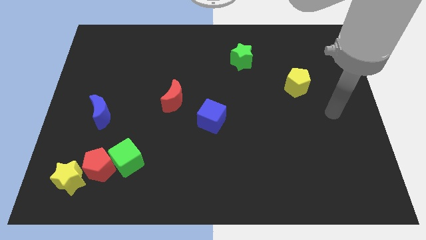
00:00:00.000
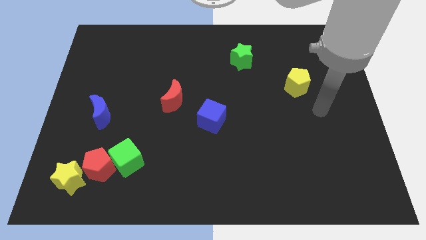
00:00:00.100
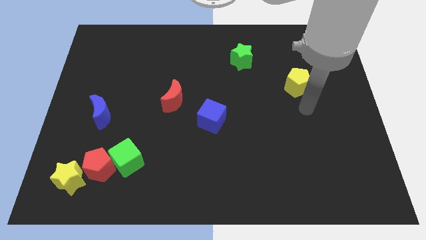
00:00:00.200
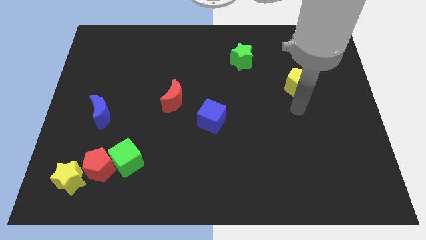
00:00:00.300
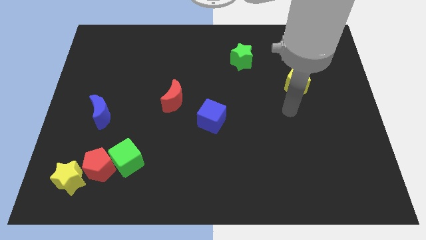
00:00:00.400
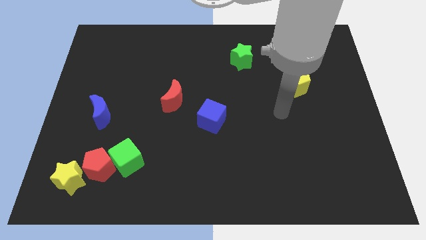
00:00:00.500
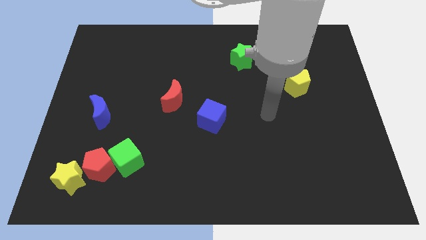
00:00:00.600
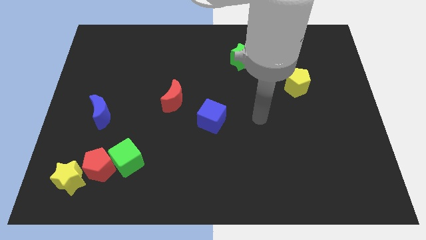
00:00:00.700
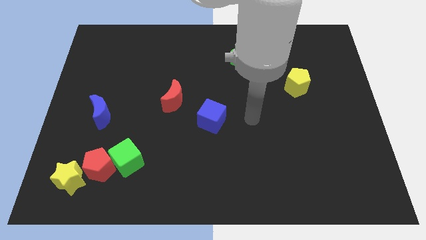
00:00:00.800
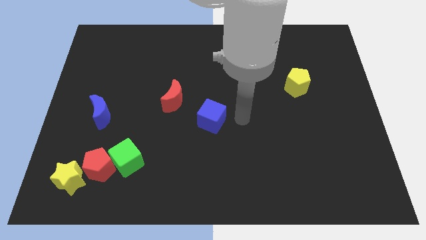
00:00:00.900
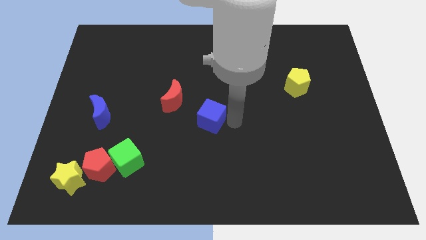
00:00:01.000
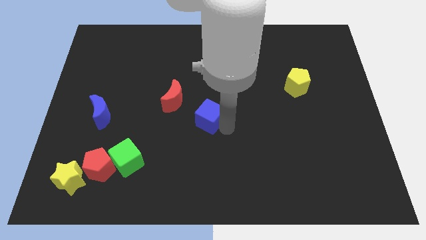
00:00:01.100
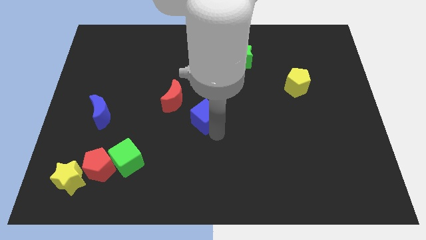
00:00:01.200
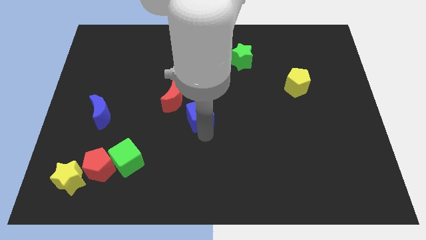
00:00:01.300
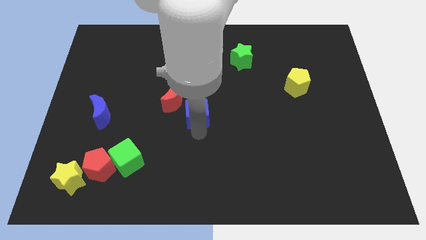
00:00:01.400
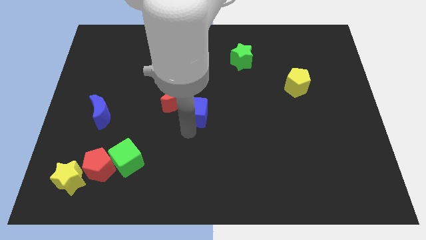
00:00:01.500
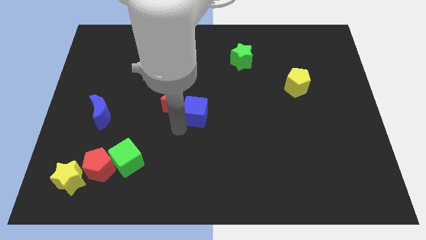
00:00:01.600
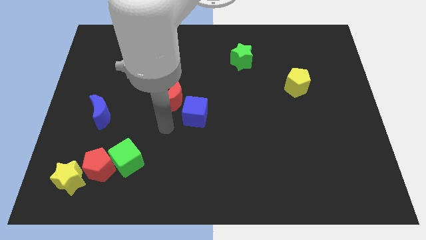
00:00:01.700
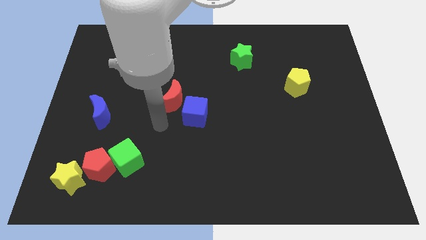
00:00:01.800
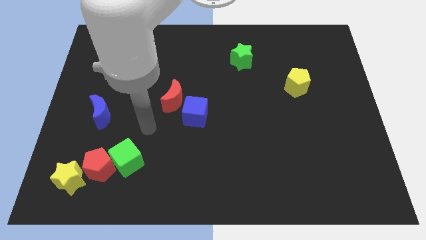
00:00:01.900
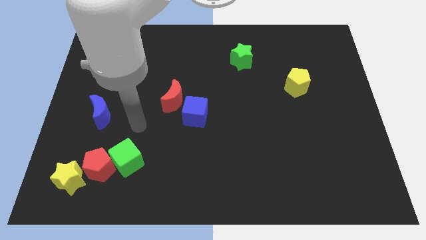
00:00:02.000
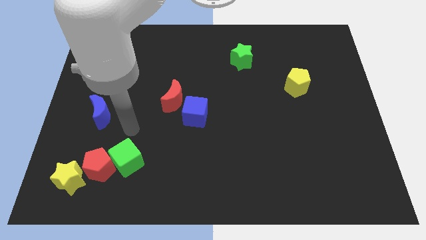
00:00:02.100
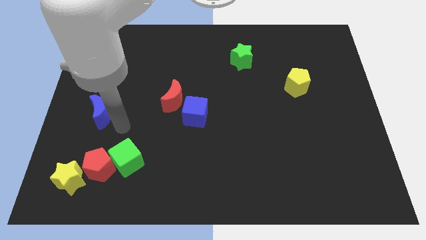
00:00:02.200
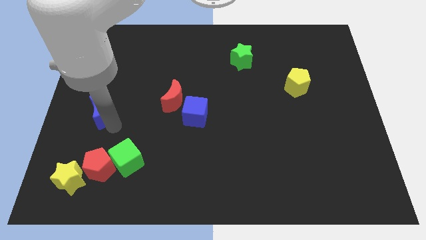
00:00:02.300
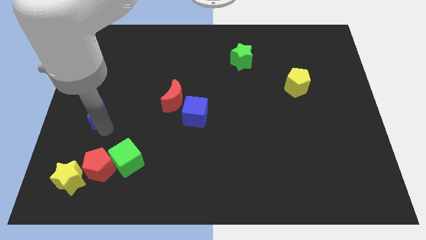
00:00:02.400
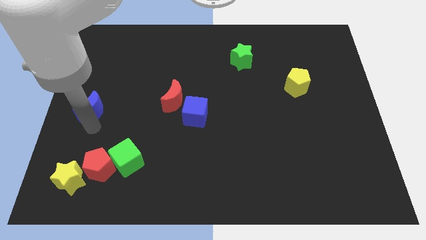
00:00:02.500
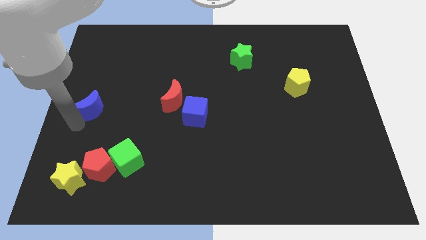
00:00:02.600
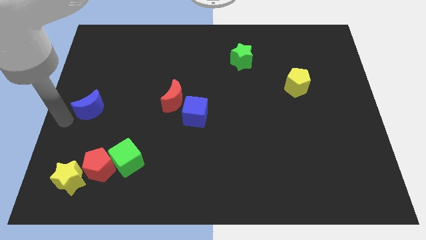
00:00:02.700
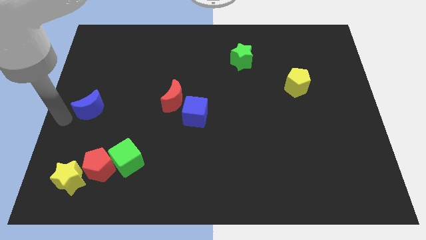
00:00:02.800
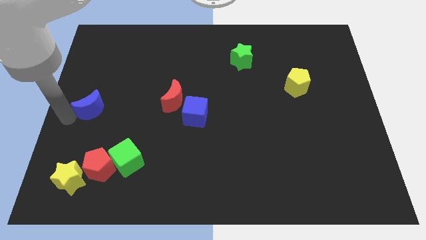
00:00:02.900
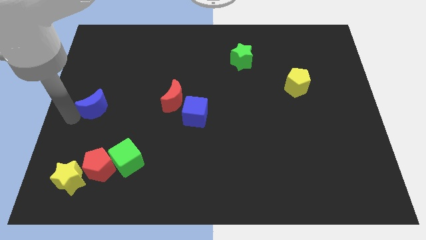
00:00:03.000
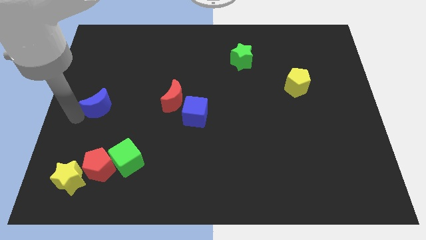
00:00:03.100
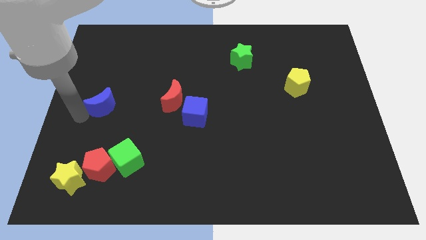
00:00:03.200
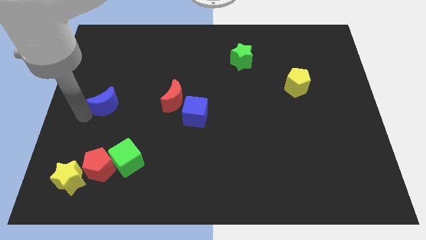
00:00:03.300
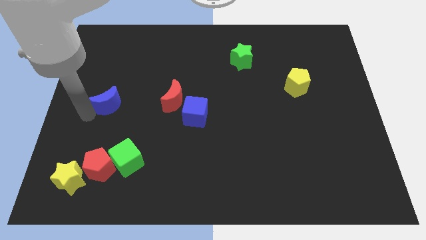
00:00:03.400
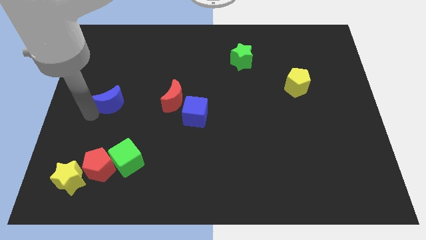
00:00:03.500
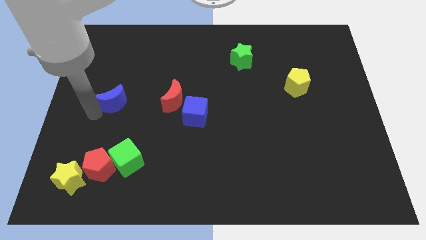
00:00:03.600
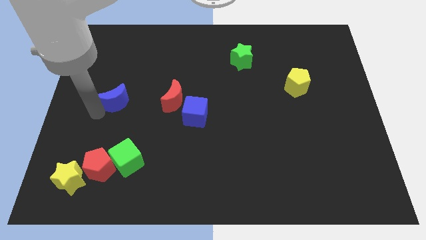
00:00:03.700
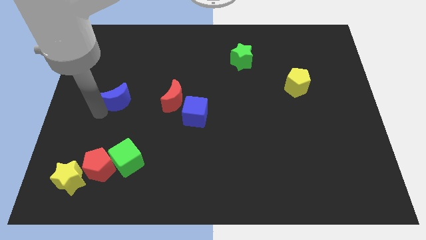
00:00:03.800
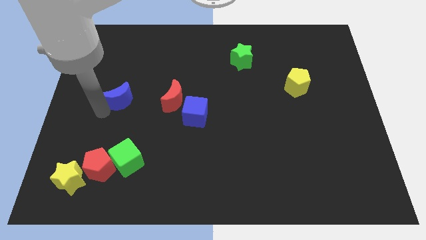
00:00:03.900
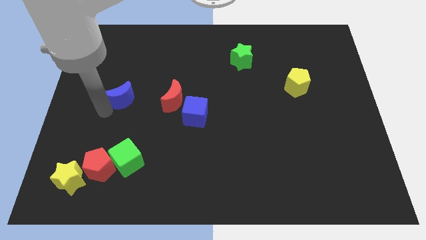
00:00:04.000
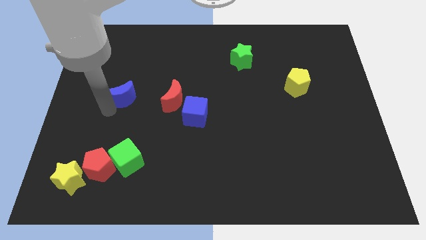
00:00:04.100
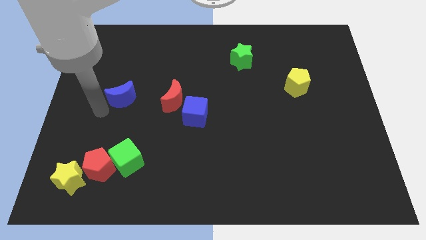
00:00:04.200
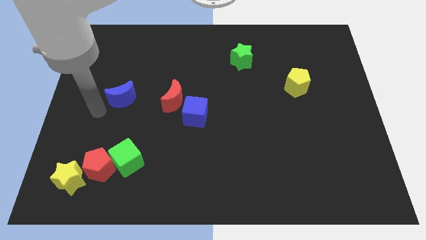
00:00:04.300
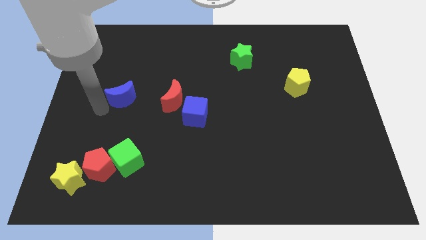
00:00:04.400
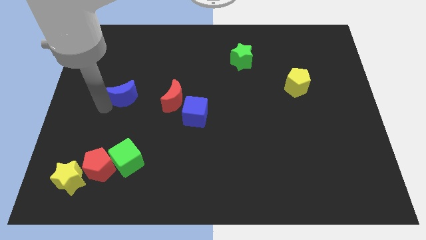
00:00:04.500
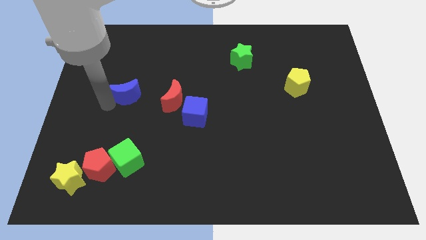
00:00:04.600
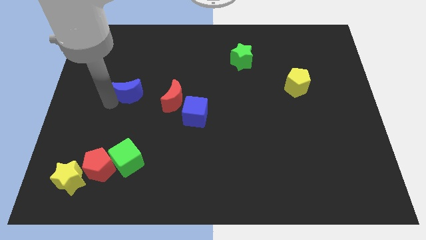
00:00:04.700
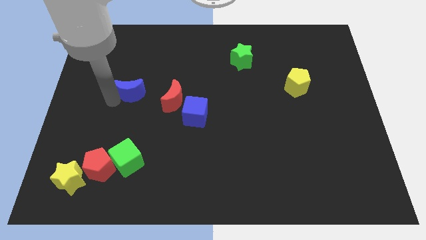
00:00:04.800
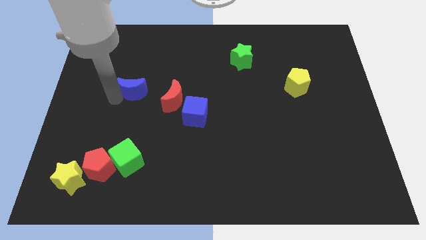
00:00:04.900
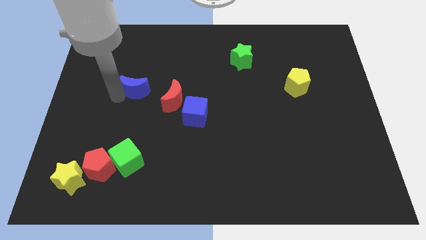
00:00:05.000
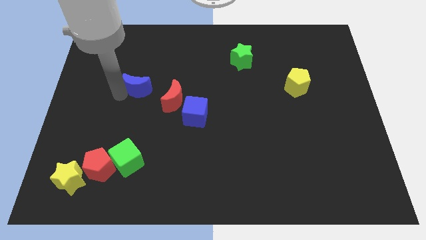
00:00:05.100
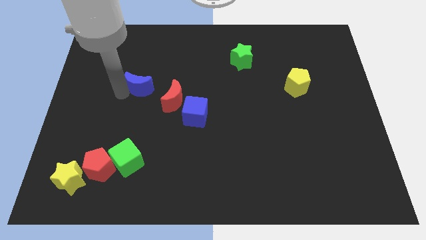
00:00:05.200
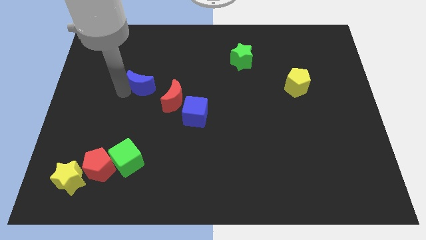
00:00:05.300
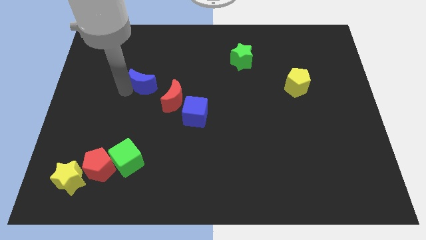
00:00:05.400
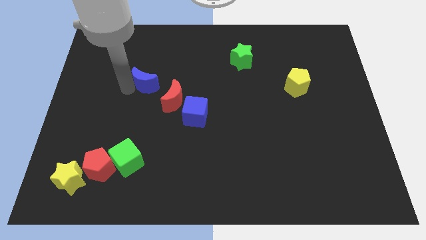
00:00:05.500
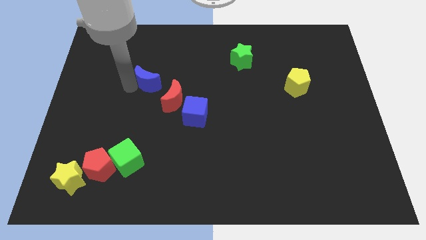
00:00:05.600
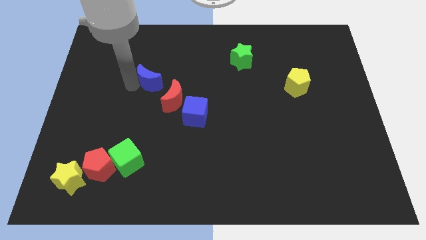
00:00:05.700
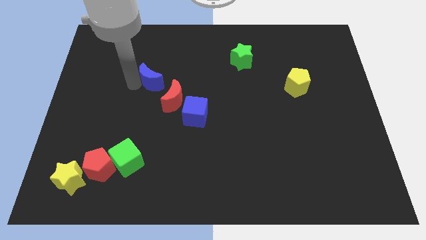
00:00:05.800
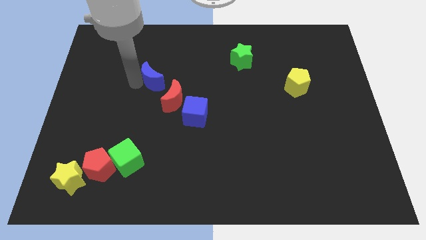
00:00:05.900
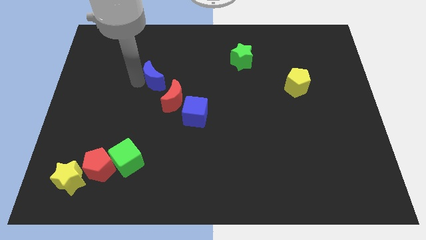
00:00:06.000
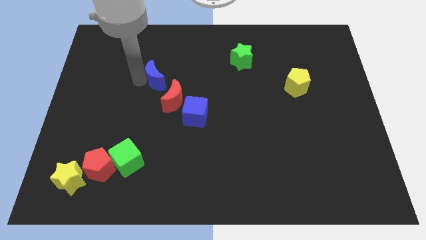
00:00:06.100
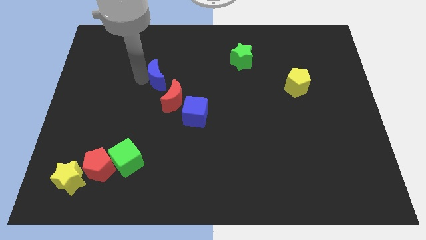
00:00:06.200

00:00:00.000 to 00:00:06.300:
slide the blue moon to the top side of the red moon
